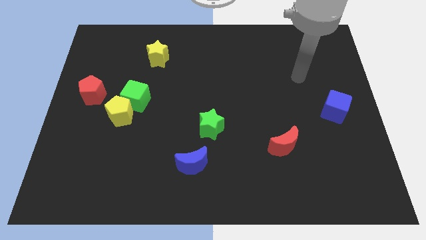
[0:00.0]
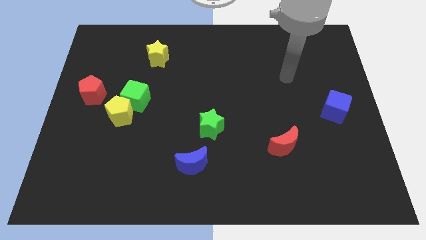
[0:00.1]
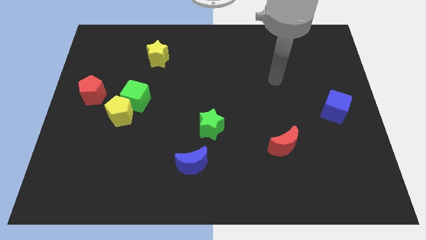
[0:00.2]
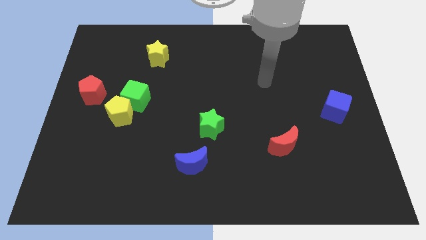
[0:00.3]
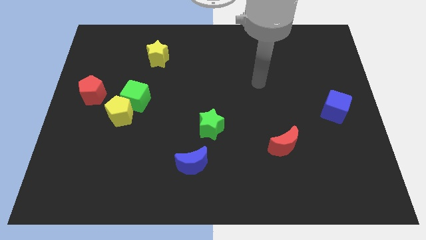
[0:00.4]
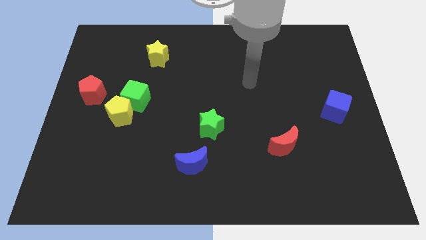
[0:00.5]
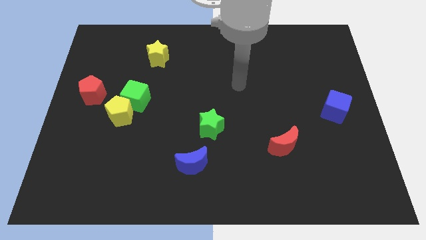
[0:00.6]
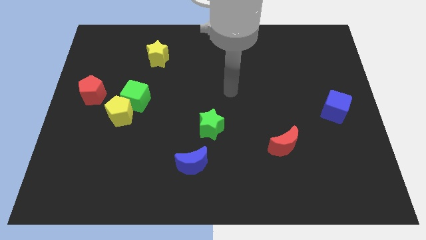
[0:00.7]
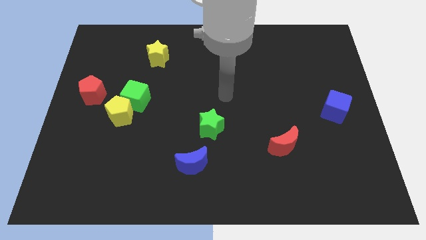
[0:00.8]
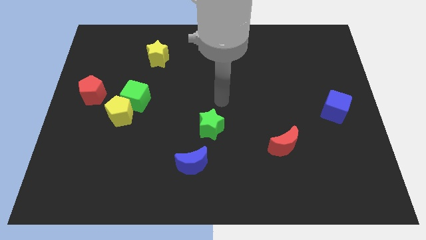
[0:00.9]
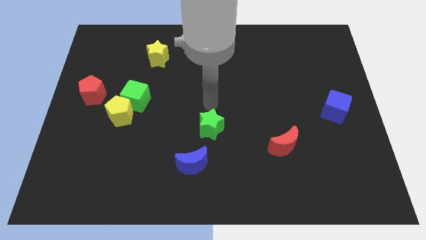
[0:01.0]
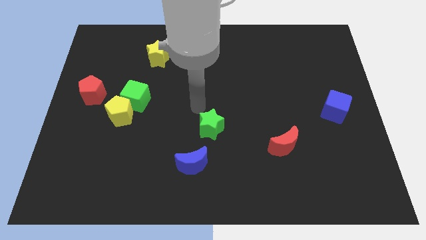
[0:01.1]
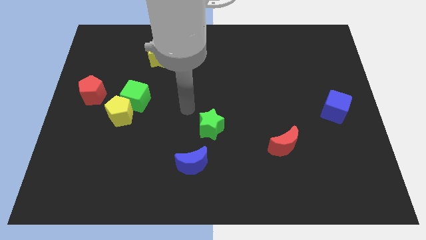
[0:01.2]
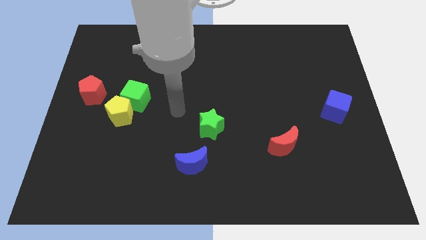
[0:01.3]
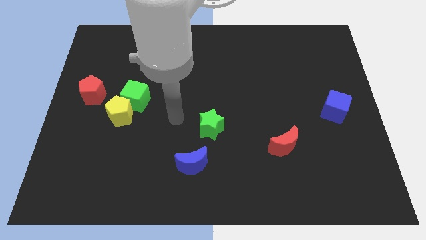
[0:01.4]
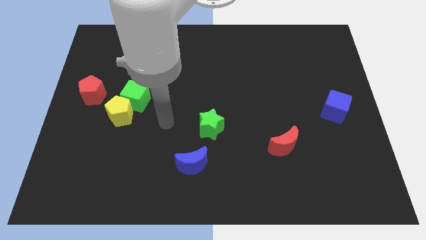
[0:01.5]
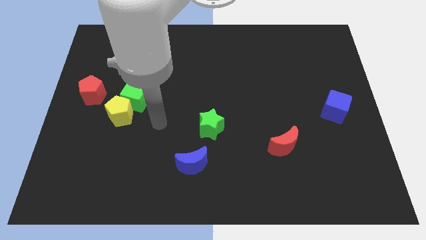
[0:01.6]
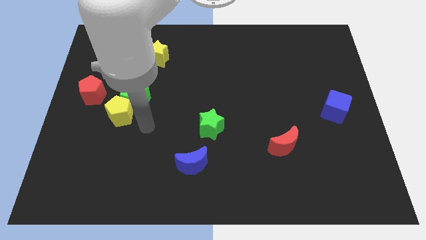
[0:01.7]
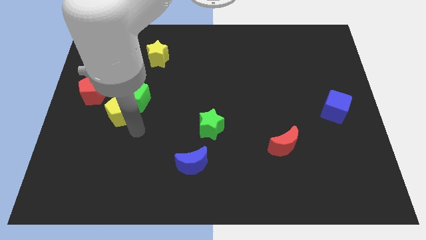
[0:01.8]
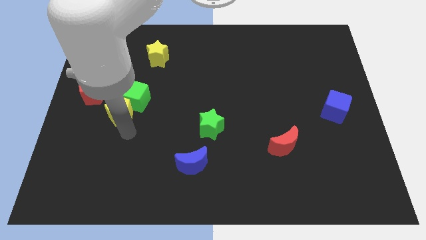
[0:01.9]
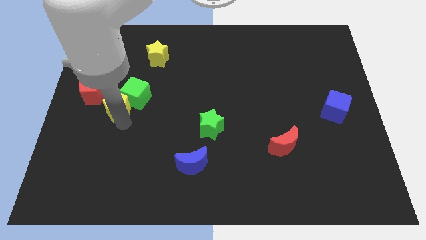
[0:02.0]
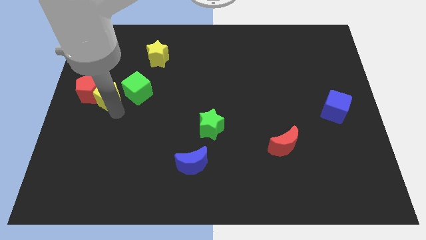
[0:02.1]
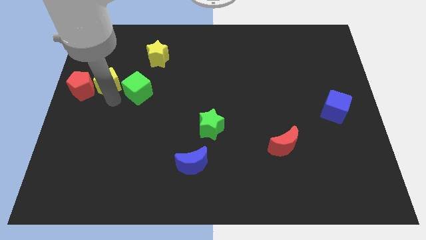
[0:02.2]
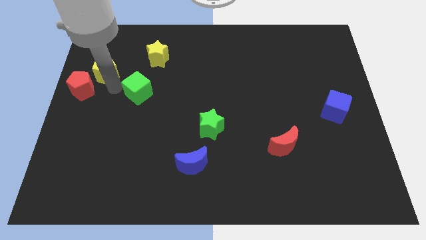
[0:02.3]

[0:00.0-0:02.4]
separate the green cube from the yellow pentagon

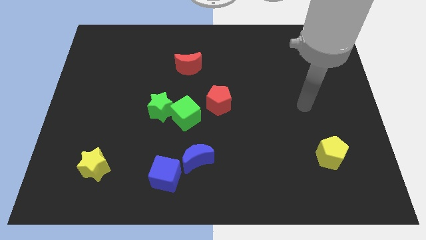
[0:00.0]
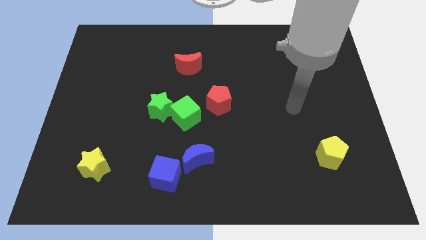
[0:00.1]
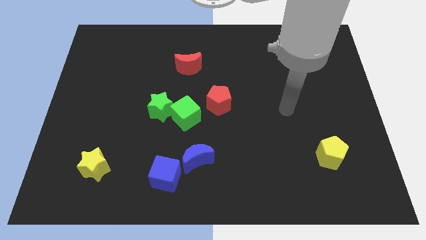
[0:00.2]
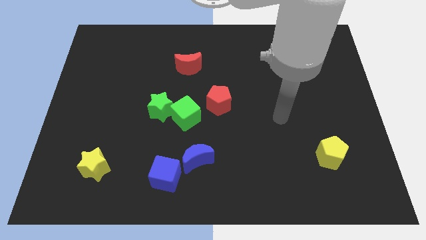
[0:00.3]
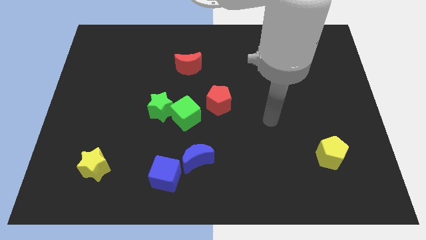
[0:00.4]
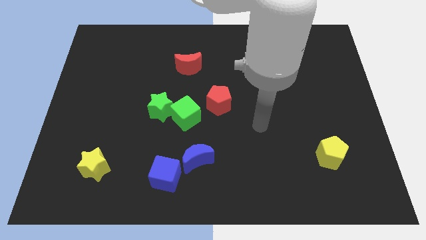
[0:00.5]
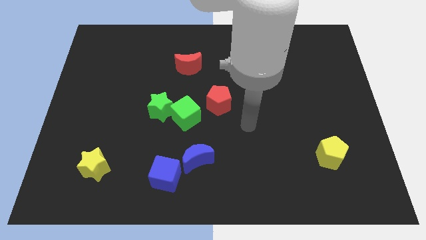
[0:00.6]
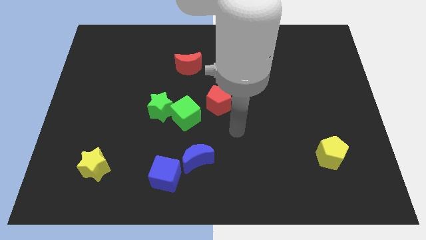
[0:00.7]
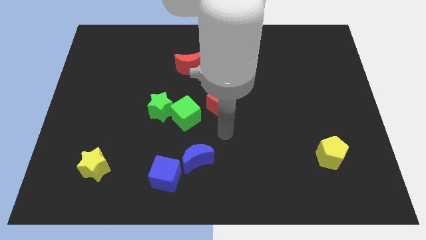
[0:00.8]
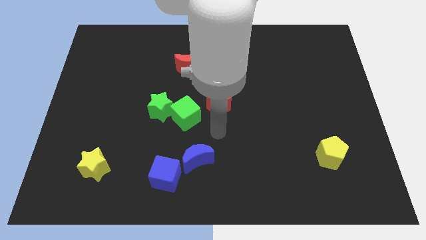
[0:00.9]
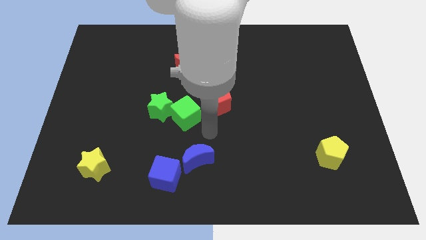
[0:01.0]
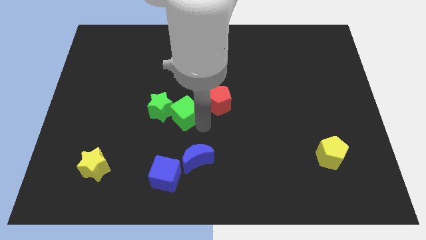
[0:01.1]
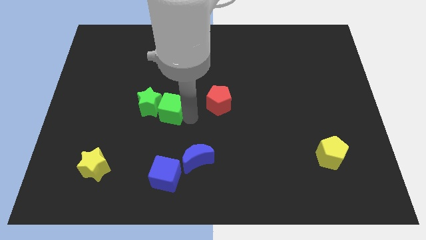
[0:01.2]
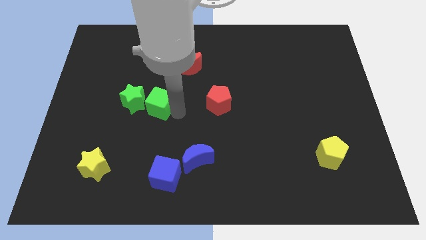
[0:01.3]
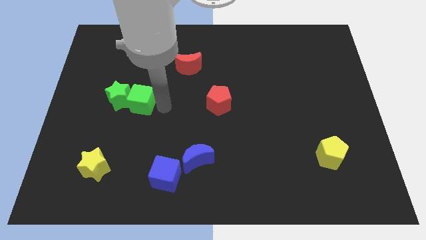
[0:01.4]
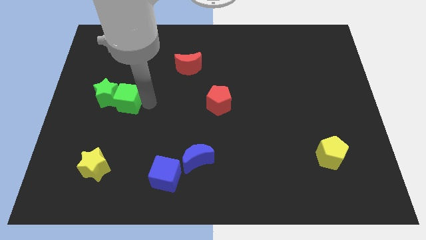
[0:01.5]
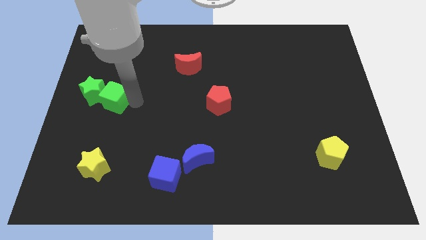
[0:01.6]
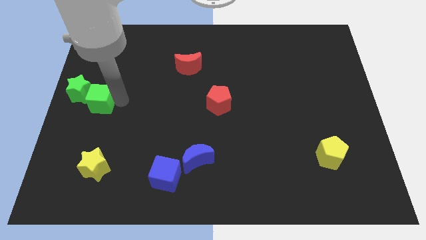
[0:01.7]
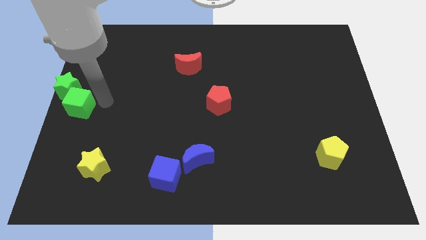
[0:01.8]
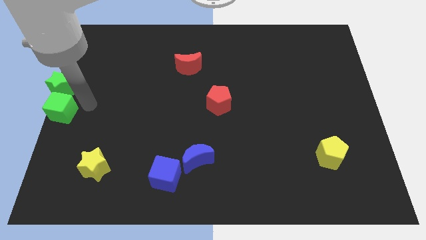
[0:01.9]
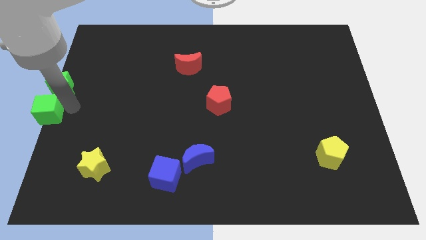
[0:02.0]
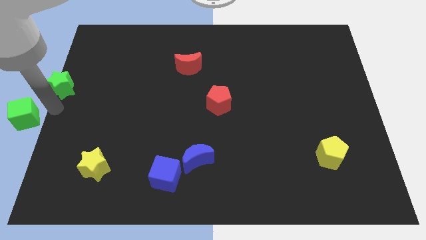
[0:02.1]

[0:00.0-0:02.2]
pull the green star apart from the green cube

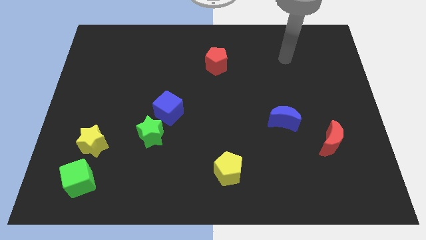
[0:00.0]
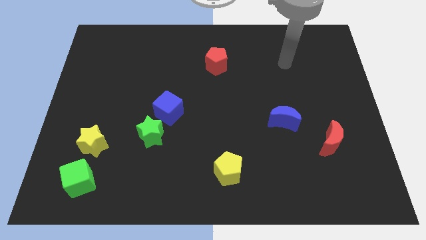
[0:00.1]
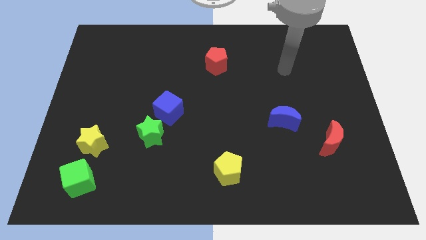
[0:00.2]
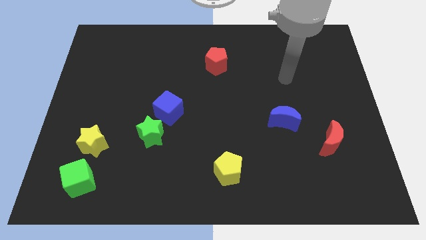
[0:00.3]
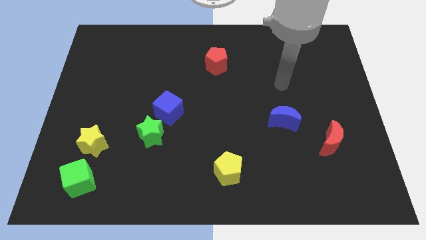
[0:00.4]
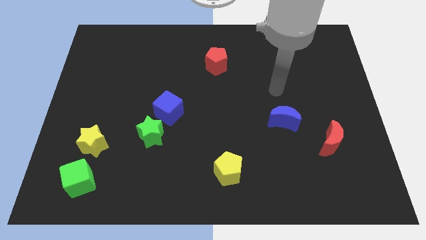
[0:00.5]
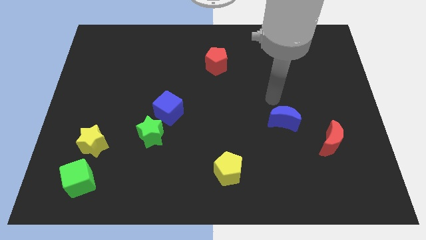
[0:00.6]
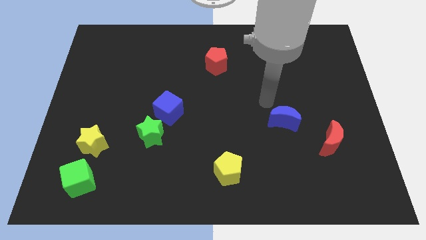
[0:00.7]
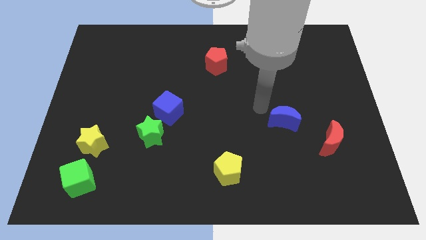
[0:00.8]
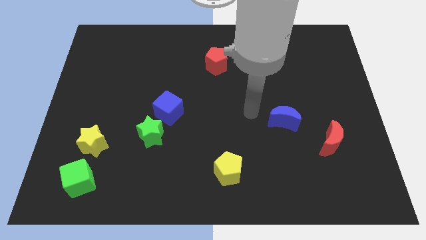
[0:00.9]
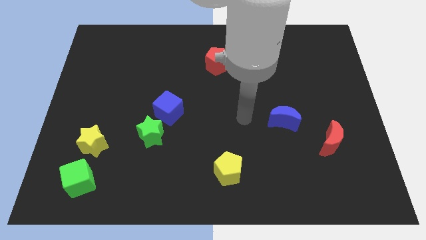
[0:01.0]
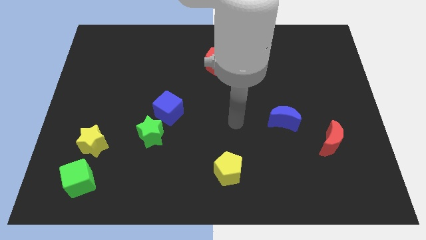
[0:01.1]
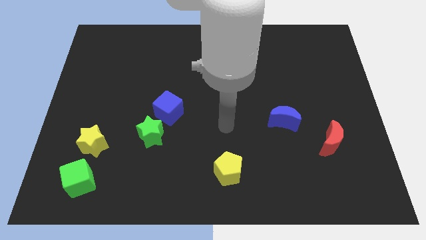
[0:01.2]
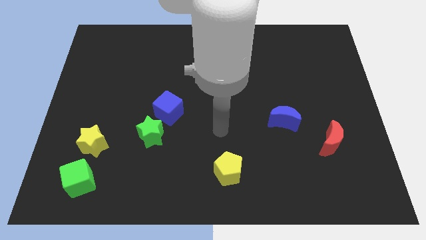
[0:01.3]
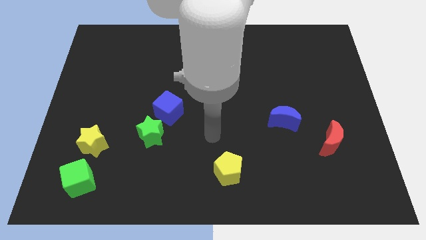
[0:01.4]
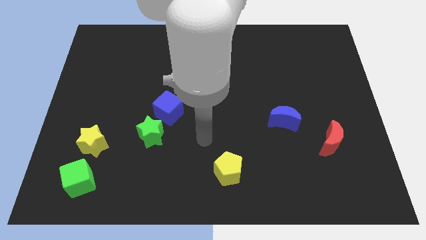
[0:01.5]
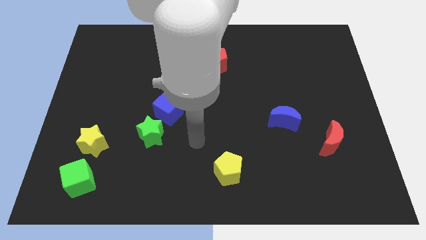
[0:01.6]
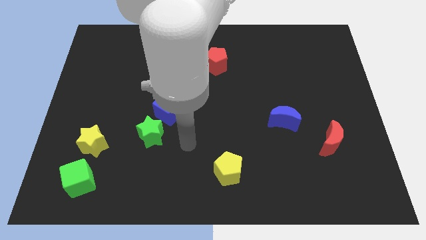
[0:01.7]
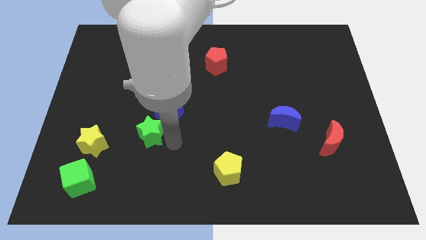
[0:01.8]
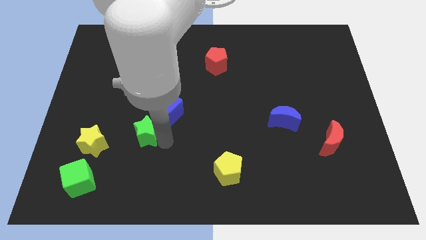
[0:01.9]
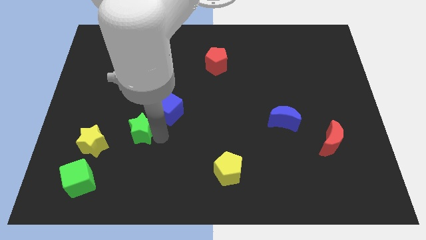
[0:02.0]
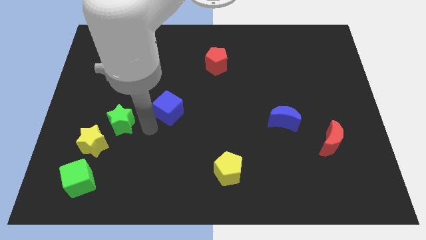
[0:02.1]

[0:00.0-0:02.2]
move the blue cube away from the green star

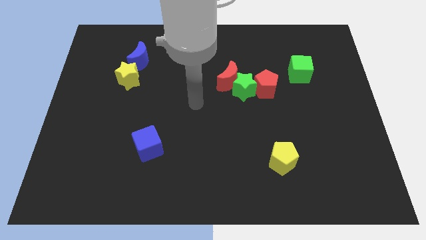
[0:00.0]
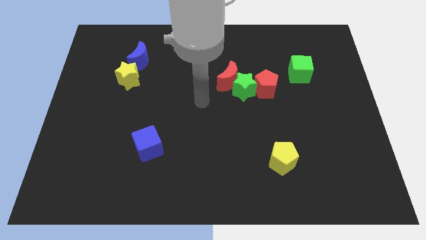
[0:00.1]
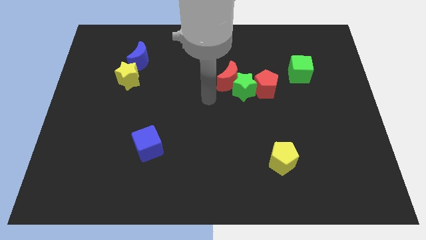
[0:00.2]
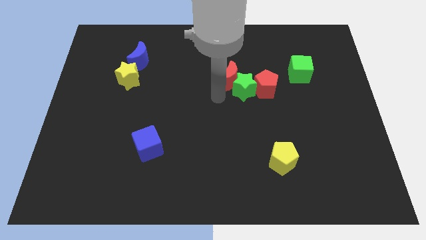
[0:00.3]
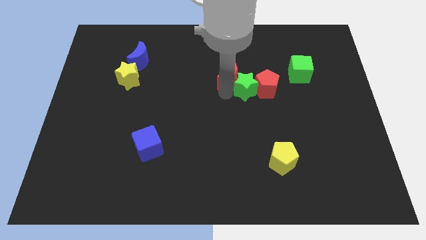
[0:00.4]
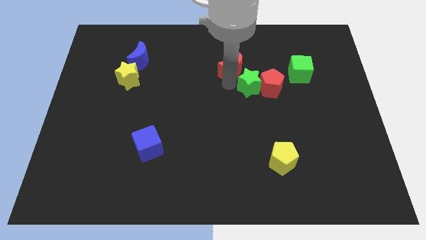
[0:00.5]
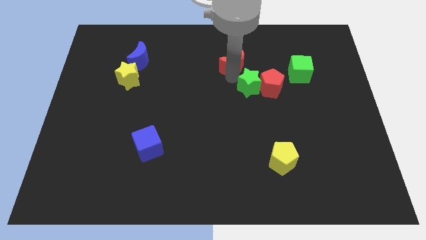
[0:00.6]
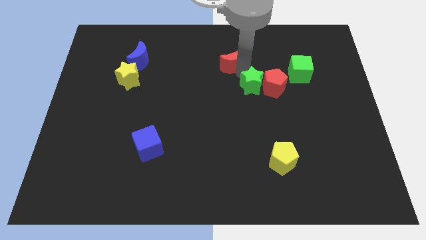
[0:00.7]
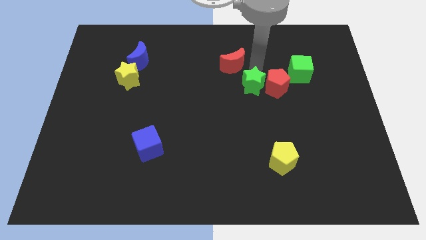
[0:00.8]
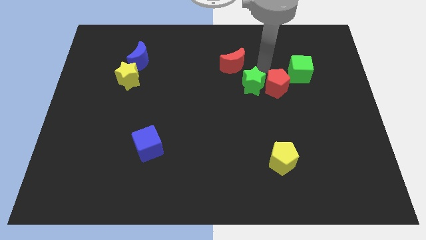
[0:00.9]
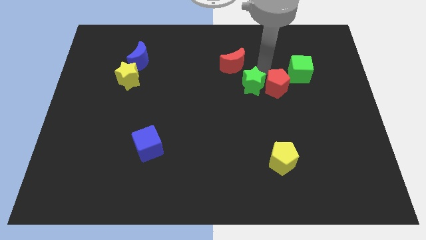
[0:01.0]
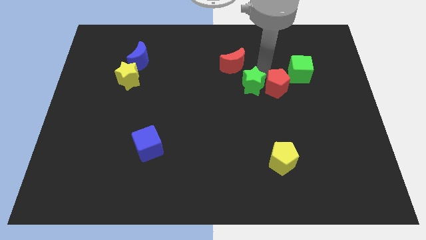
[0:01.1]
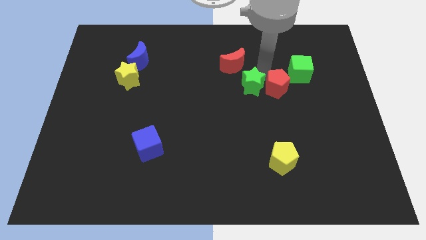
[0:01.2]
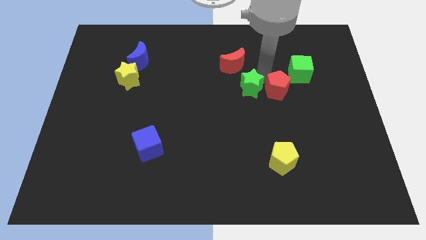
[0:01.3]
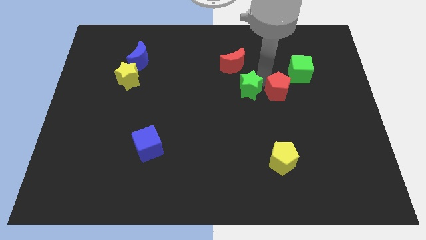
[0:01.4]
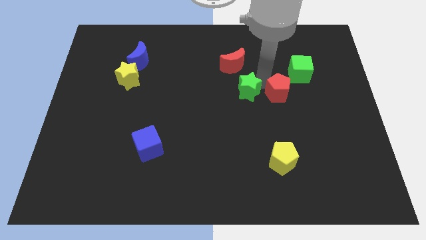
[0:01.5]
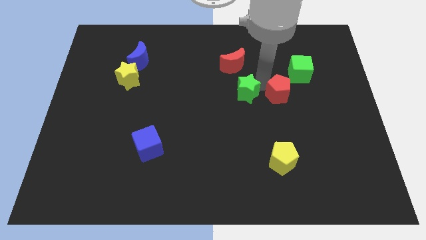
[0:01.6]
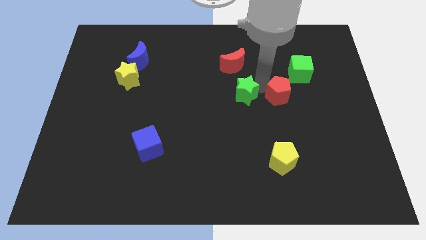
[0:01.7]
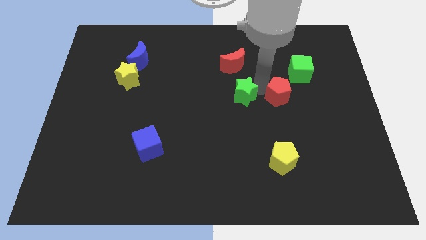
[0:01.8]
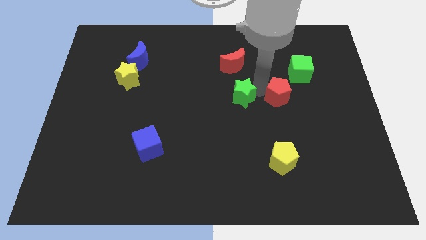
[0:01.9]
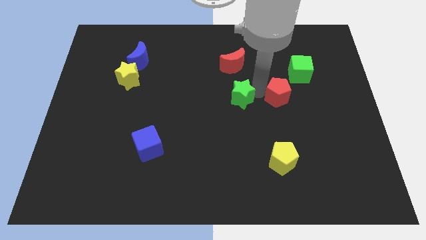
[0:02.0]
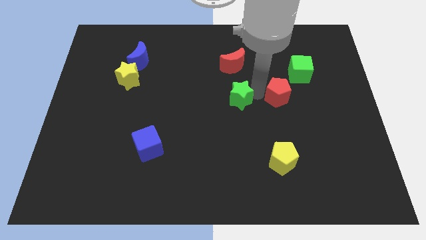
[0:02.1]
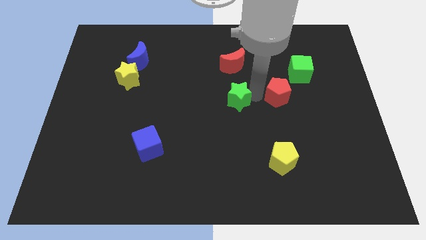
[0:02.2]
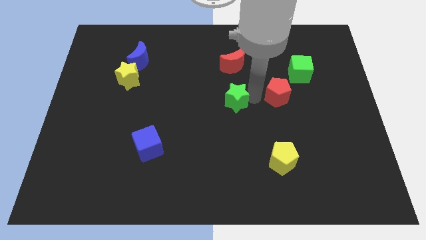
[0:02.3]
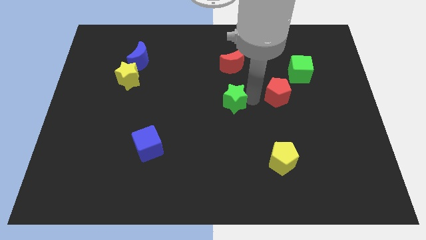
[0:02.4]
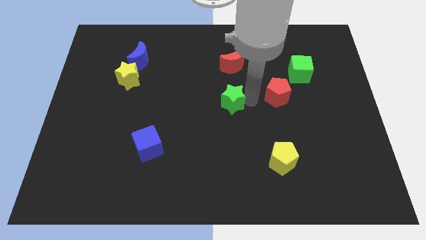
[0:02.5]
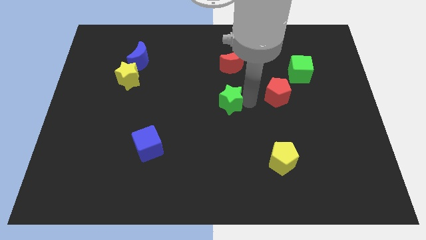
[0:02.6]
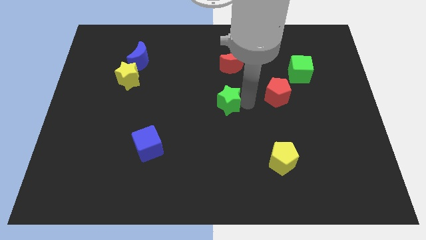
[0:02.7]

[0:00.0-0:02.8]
pull the green star apart from the red moon and red pentagon
